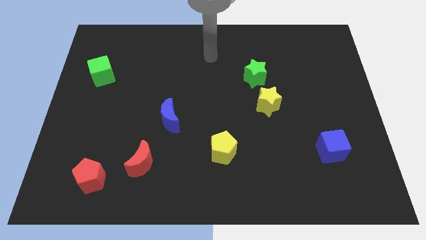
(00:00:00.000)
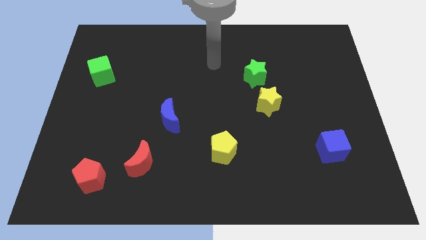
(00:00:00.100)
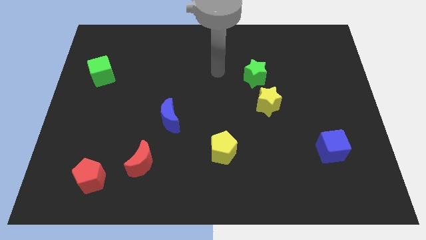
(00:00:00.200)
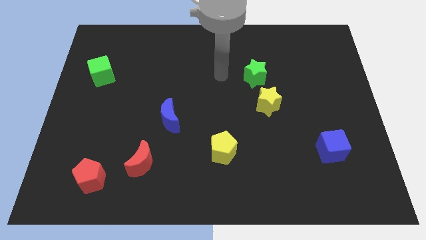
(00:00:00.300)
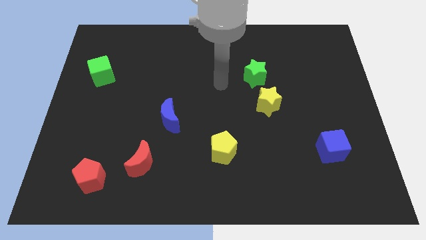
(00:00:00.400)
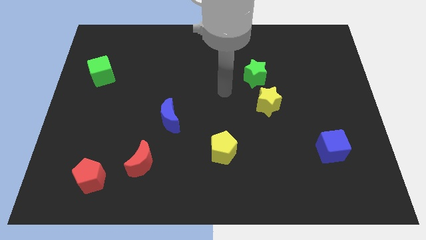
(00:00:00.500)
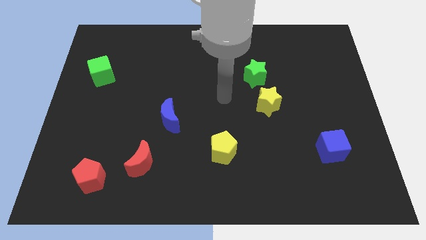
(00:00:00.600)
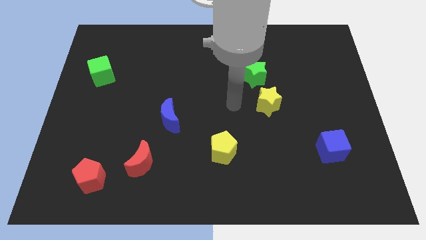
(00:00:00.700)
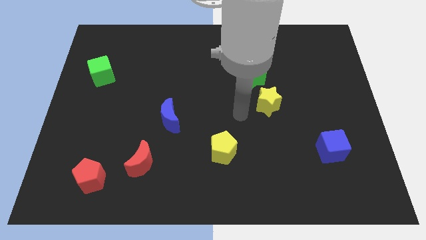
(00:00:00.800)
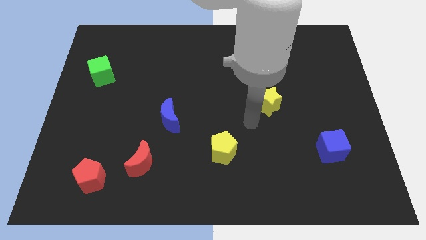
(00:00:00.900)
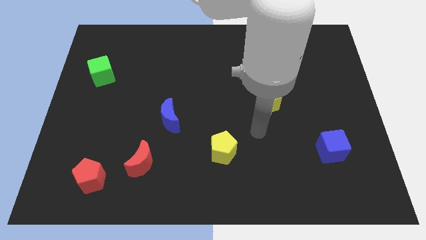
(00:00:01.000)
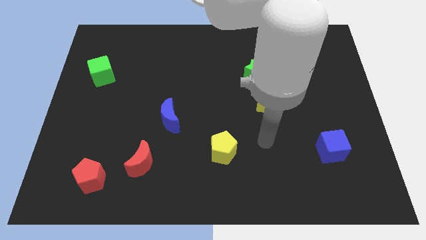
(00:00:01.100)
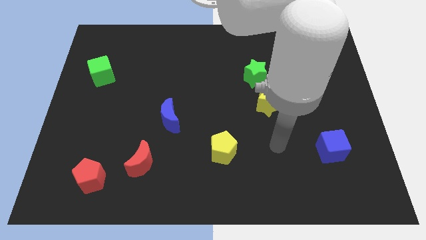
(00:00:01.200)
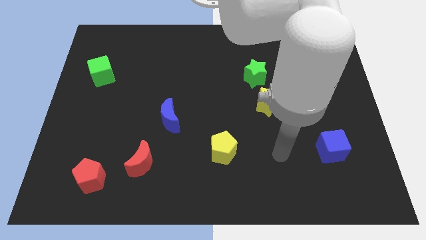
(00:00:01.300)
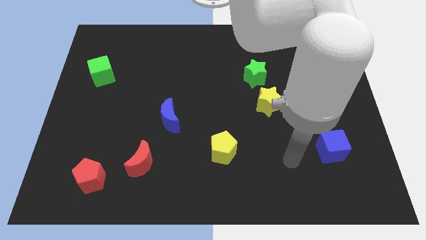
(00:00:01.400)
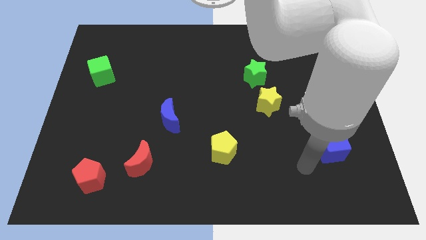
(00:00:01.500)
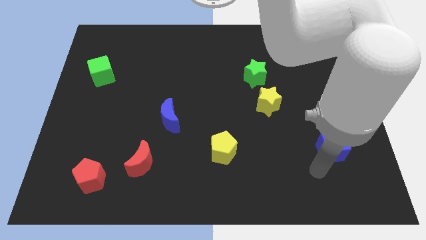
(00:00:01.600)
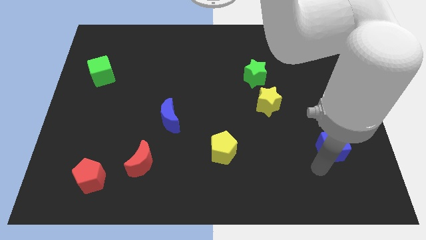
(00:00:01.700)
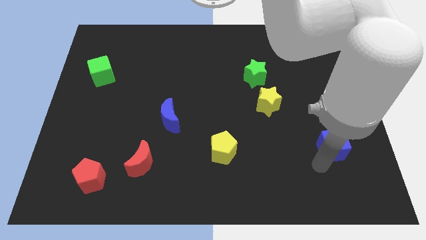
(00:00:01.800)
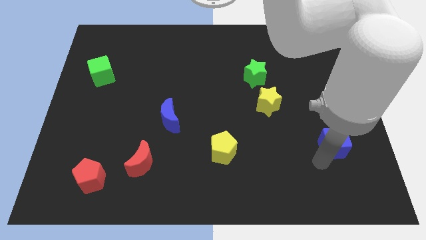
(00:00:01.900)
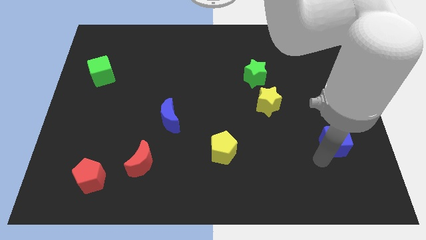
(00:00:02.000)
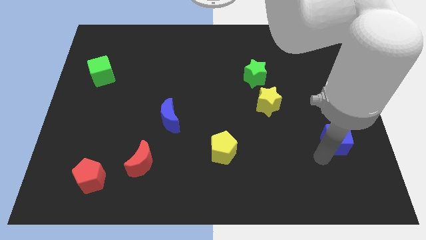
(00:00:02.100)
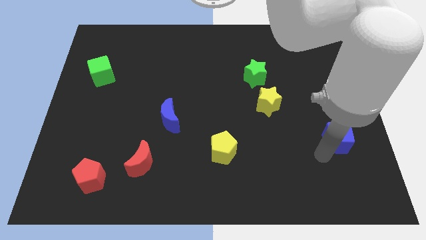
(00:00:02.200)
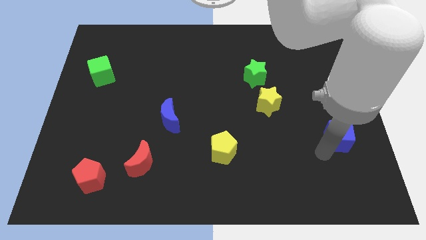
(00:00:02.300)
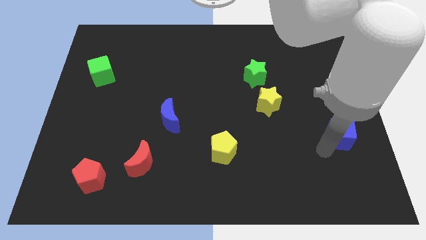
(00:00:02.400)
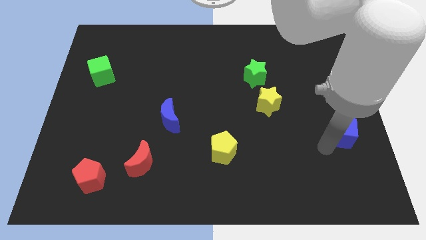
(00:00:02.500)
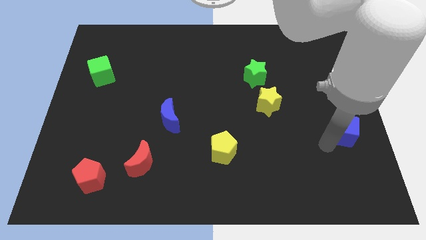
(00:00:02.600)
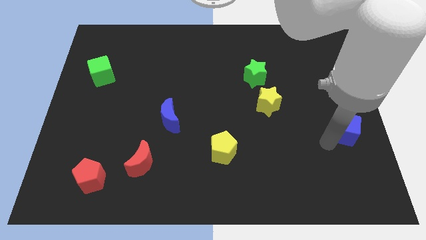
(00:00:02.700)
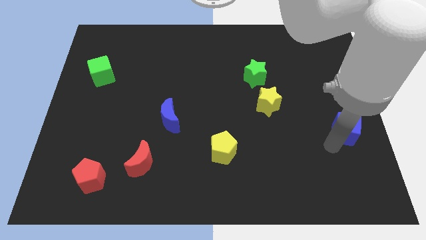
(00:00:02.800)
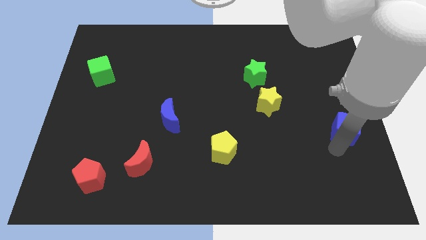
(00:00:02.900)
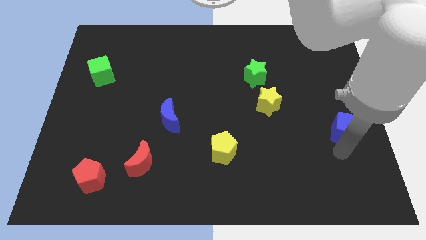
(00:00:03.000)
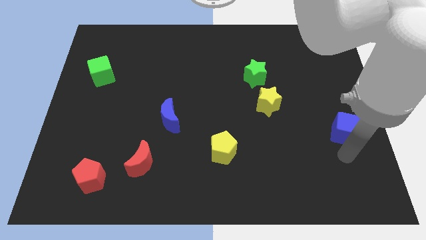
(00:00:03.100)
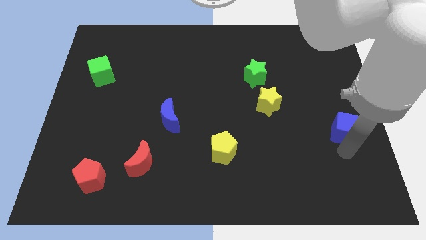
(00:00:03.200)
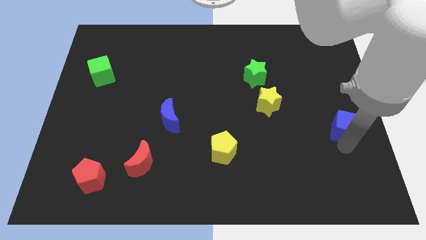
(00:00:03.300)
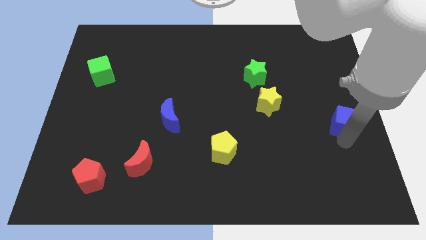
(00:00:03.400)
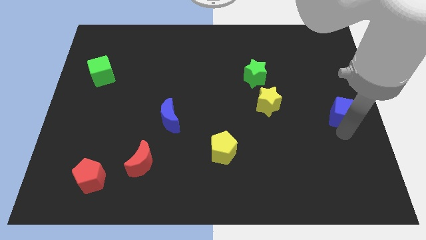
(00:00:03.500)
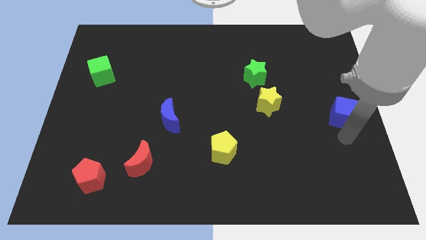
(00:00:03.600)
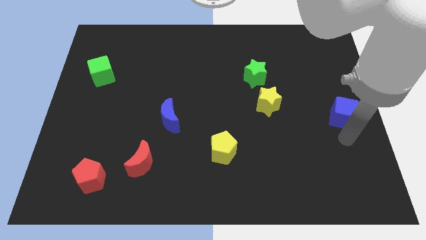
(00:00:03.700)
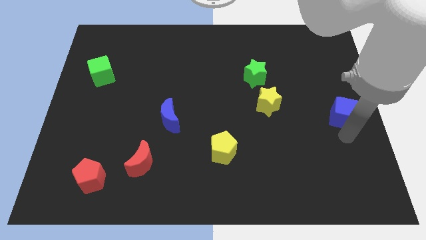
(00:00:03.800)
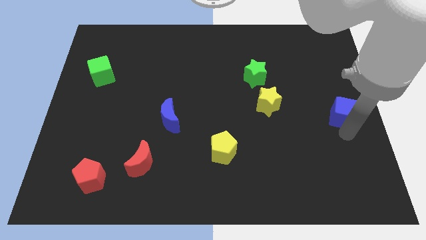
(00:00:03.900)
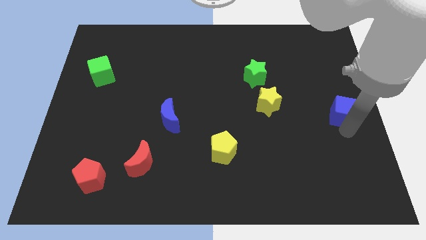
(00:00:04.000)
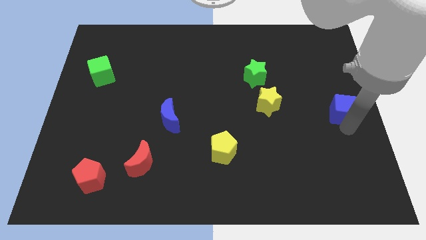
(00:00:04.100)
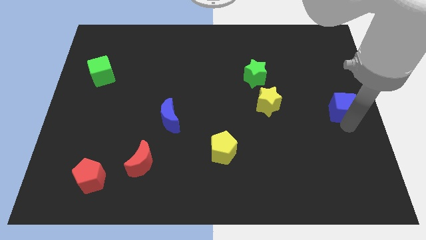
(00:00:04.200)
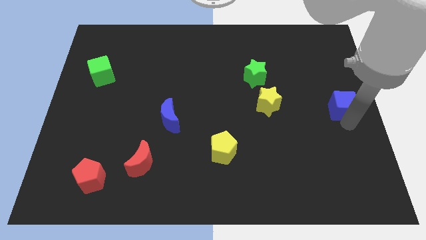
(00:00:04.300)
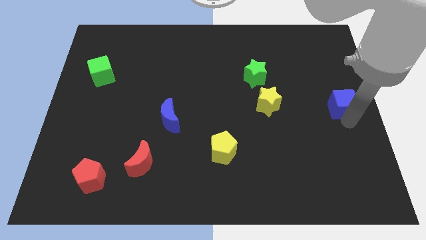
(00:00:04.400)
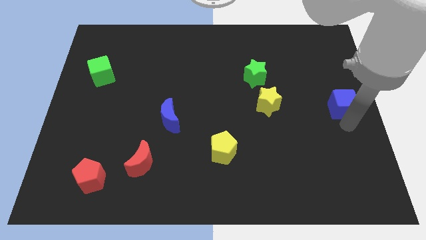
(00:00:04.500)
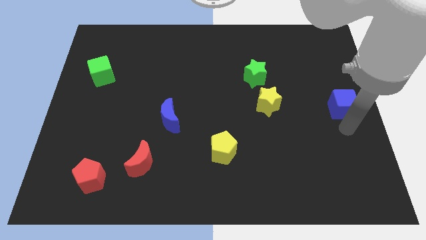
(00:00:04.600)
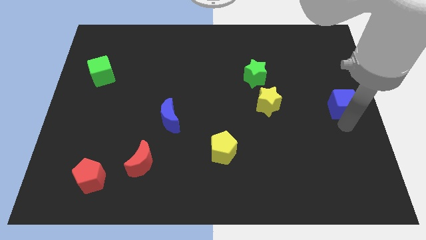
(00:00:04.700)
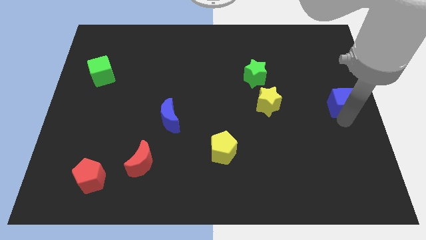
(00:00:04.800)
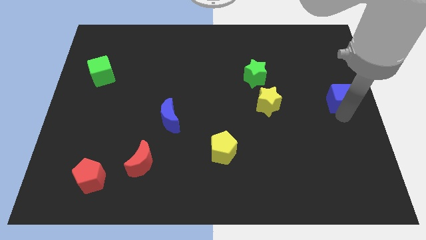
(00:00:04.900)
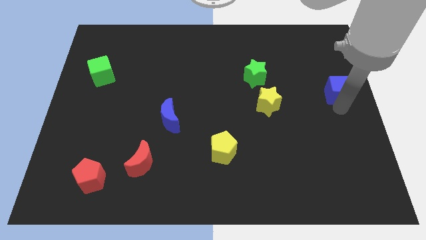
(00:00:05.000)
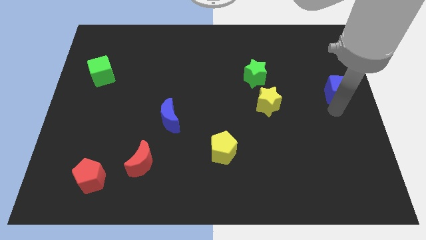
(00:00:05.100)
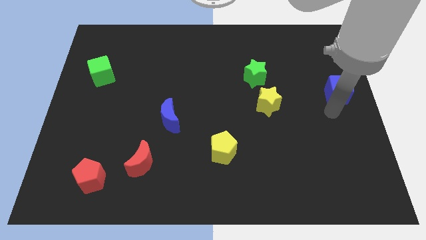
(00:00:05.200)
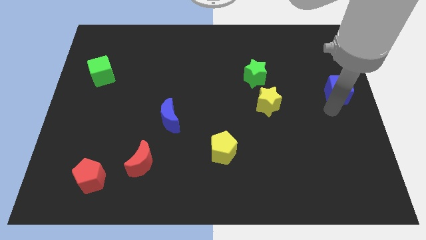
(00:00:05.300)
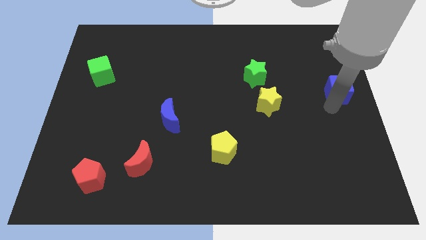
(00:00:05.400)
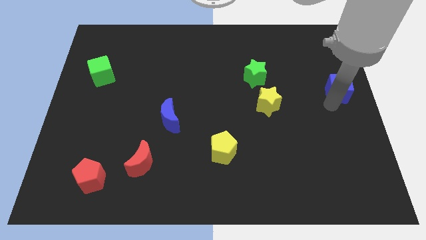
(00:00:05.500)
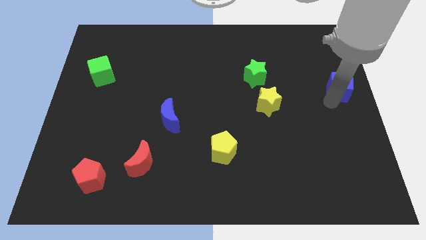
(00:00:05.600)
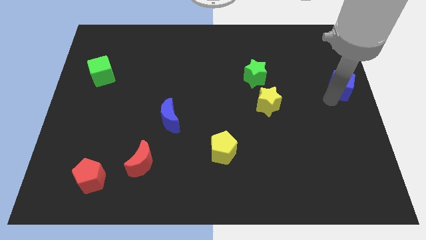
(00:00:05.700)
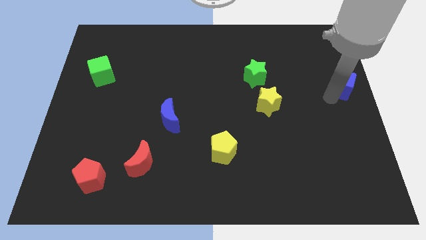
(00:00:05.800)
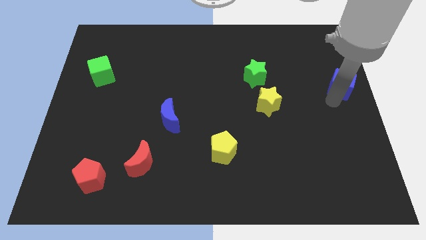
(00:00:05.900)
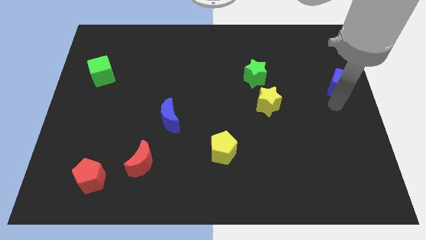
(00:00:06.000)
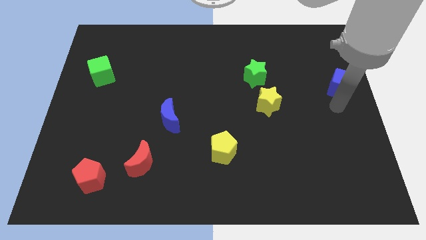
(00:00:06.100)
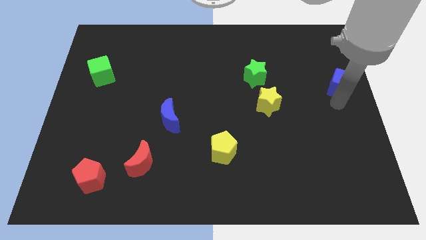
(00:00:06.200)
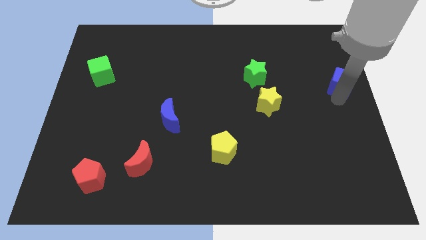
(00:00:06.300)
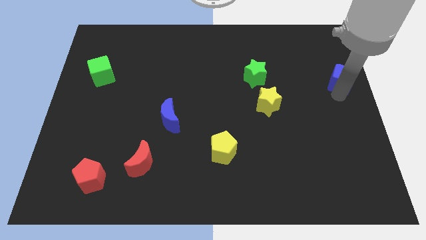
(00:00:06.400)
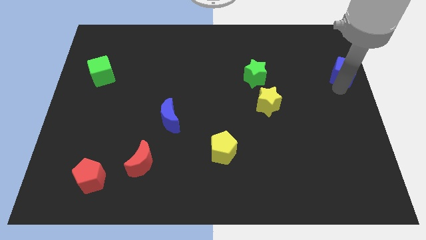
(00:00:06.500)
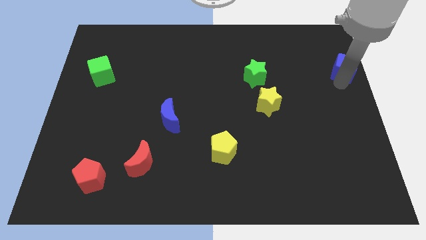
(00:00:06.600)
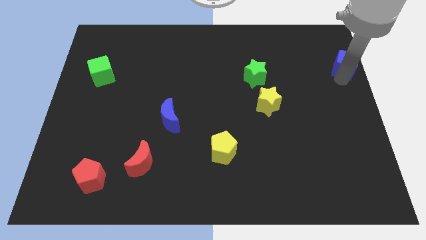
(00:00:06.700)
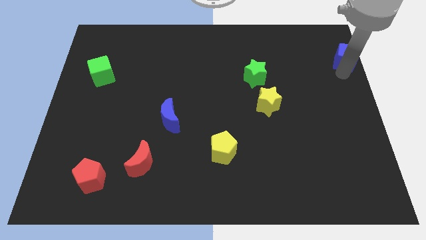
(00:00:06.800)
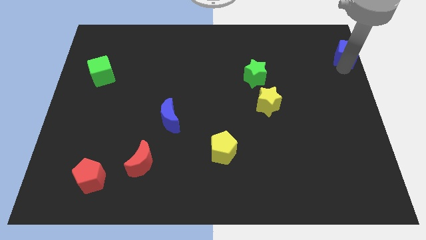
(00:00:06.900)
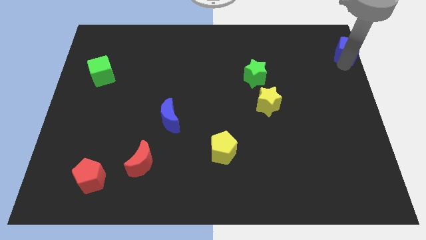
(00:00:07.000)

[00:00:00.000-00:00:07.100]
slide the blue cube to the upper right corner
